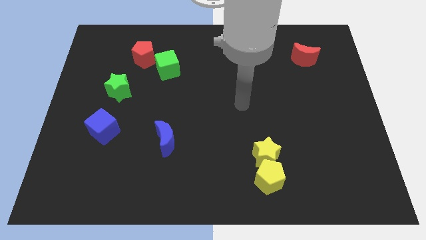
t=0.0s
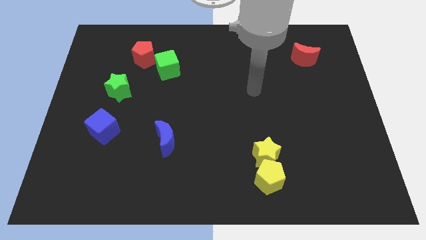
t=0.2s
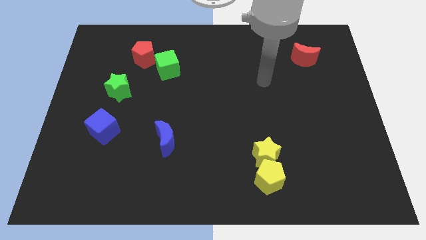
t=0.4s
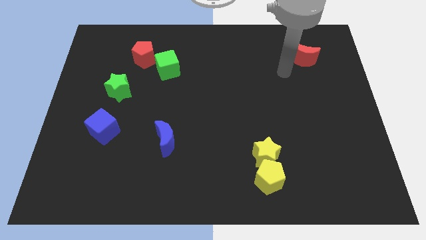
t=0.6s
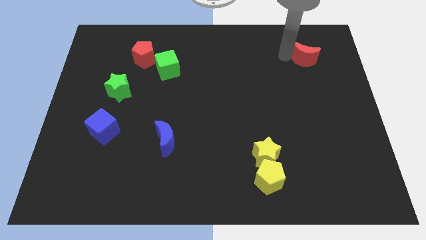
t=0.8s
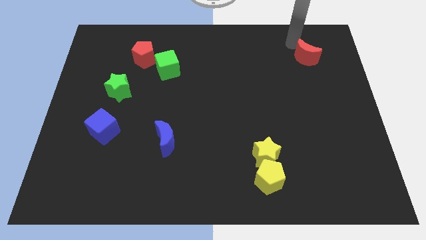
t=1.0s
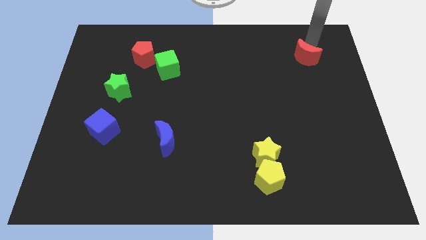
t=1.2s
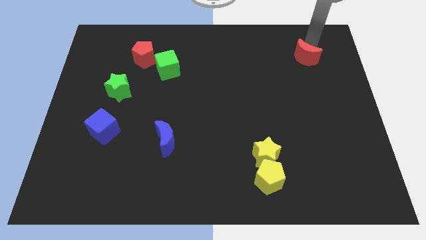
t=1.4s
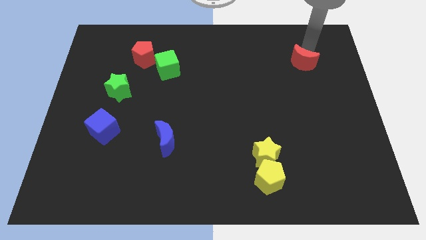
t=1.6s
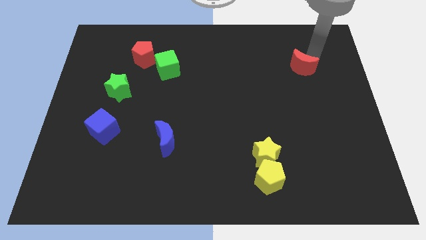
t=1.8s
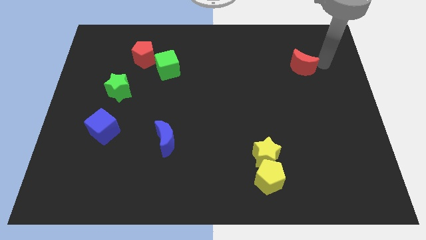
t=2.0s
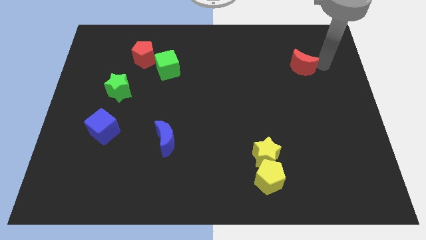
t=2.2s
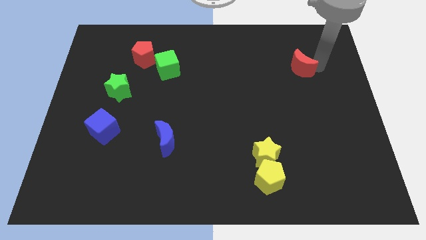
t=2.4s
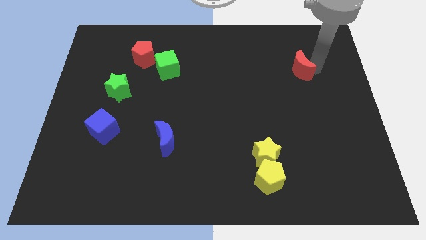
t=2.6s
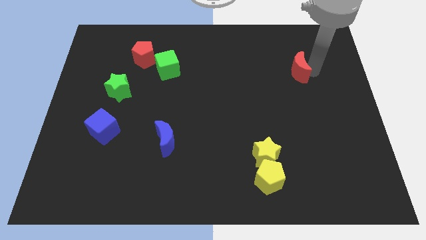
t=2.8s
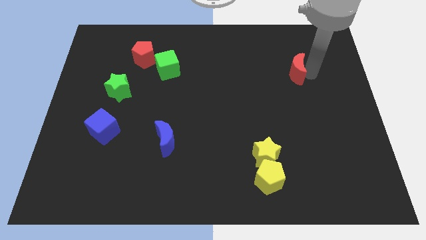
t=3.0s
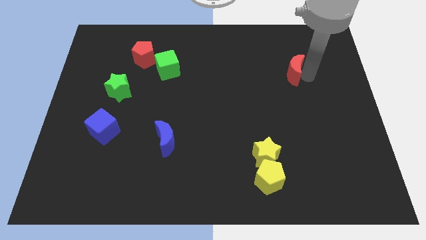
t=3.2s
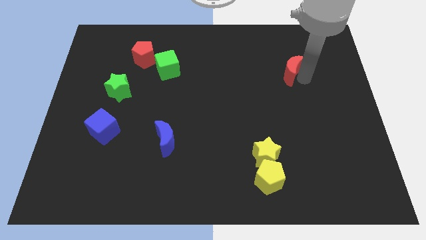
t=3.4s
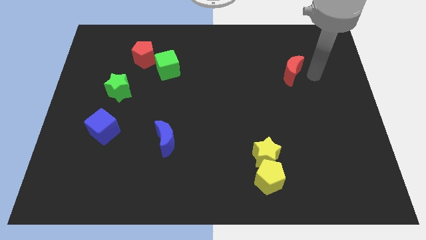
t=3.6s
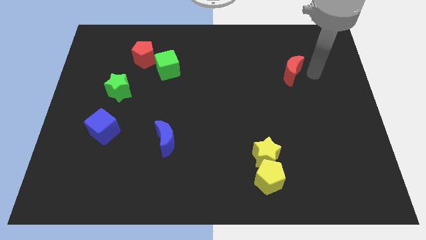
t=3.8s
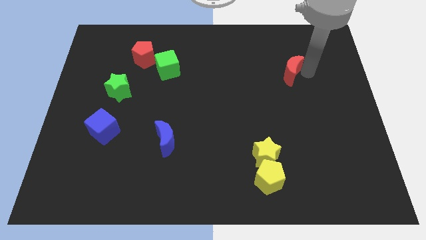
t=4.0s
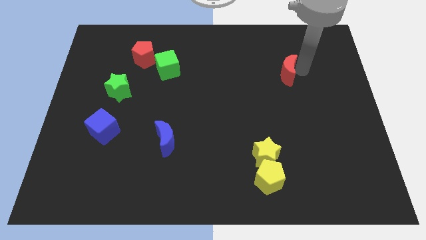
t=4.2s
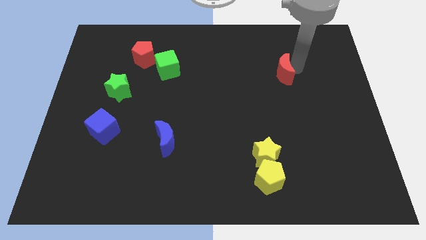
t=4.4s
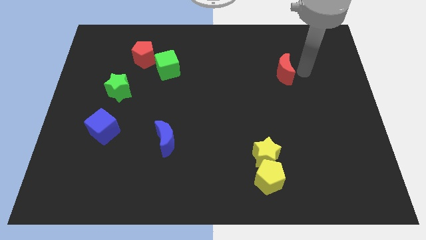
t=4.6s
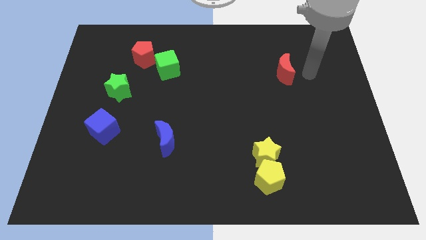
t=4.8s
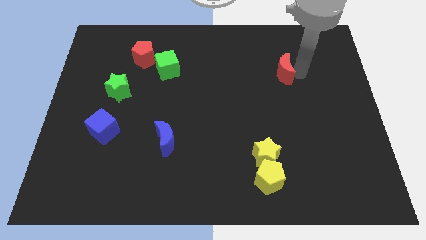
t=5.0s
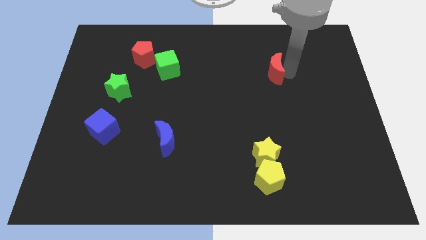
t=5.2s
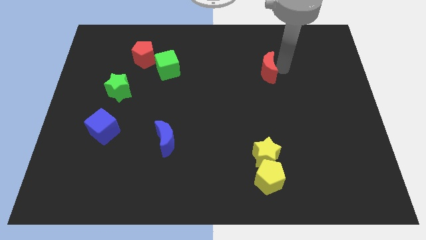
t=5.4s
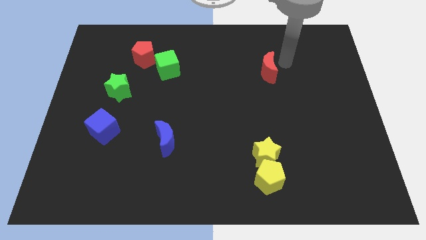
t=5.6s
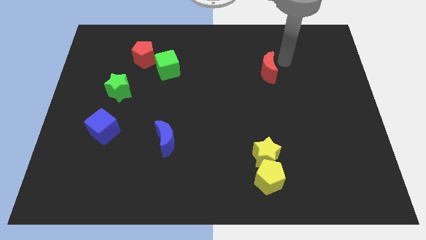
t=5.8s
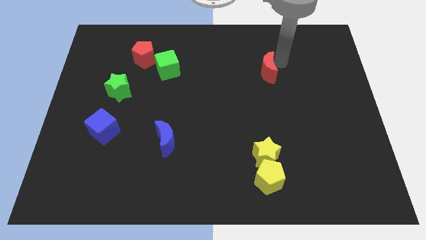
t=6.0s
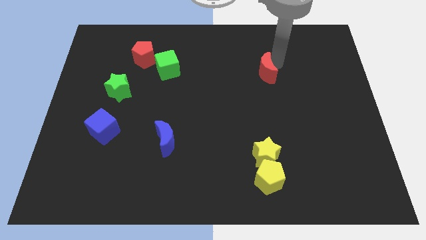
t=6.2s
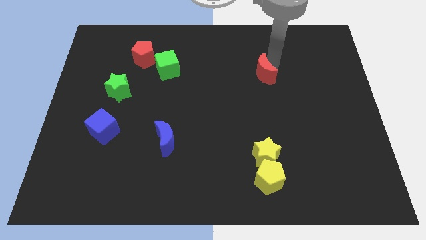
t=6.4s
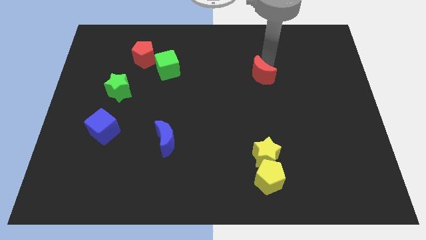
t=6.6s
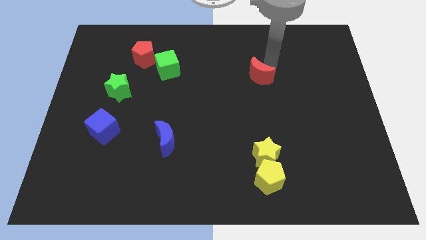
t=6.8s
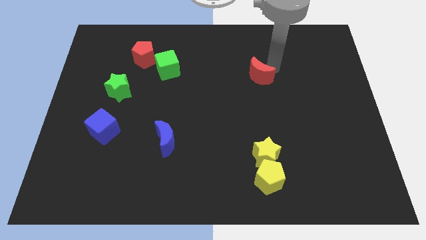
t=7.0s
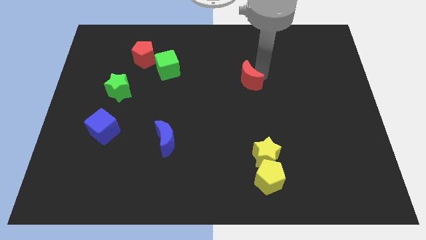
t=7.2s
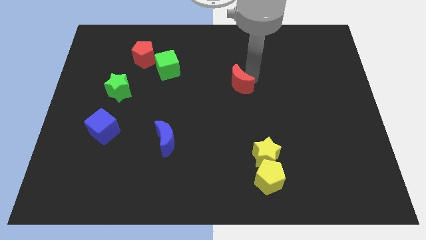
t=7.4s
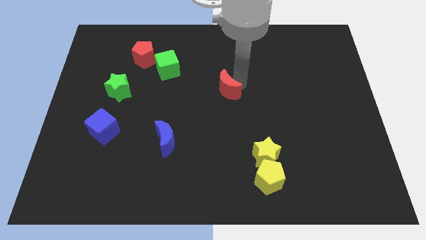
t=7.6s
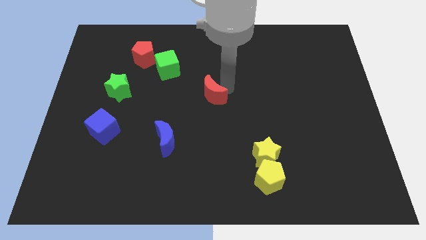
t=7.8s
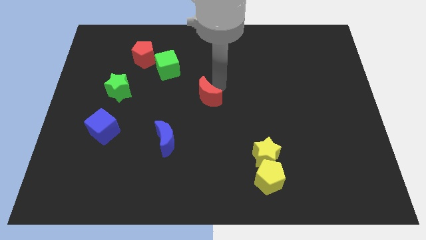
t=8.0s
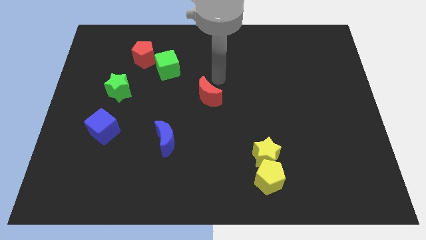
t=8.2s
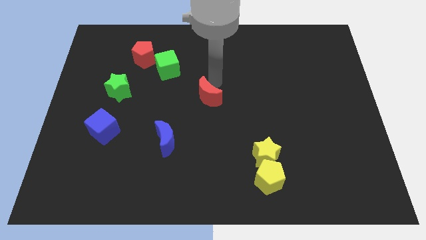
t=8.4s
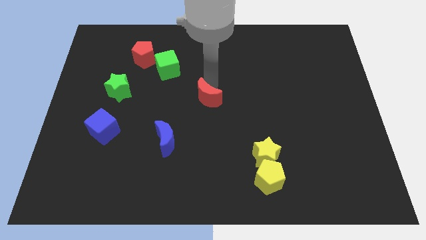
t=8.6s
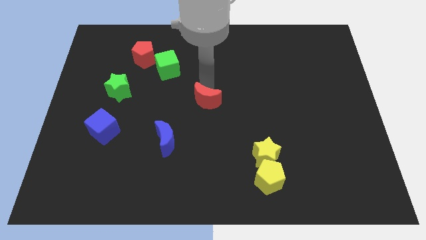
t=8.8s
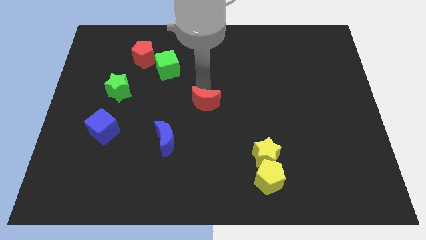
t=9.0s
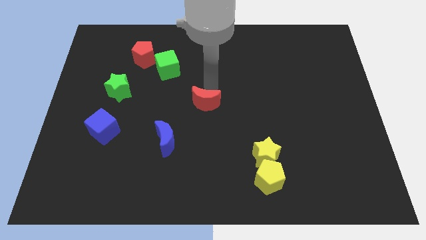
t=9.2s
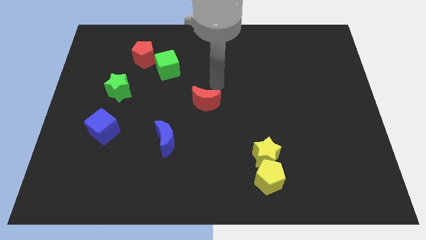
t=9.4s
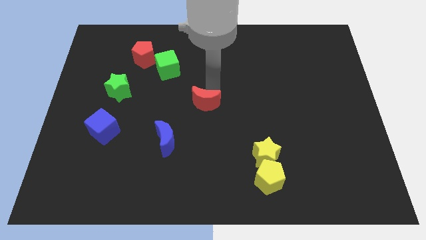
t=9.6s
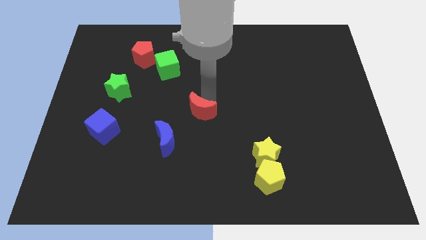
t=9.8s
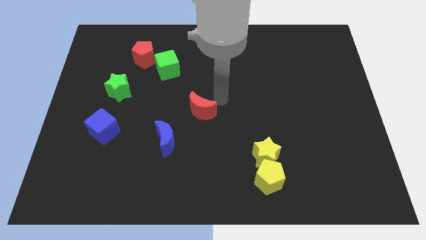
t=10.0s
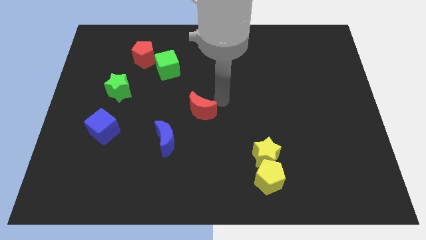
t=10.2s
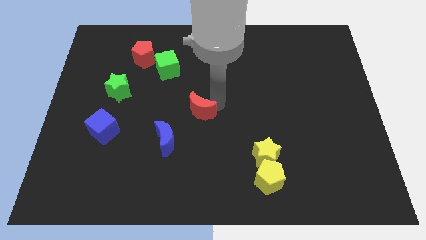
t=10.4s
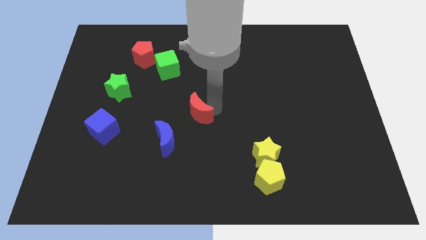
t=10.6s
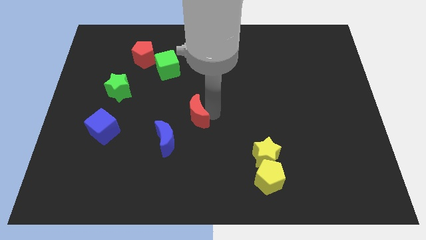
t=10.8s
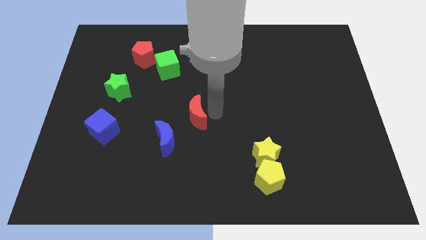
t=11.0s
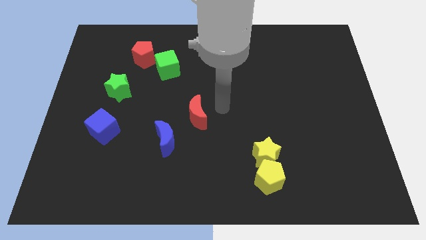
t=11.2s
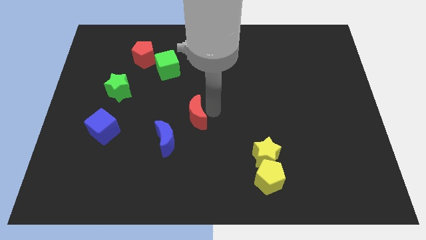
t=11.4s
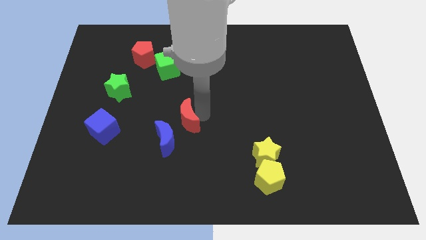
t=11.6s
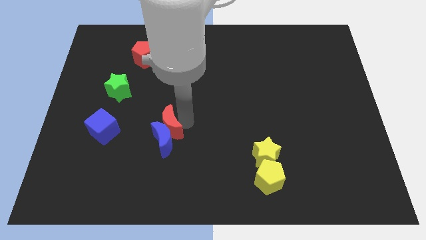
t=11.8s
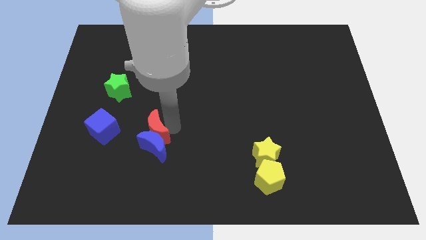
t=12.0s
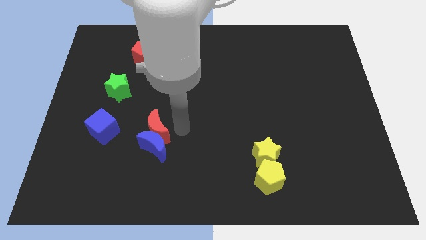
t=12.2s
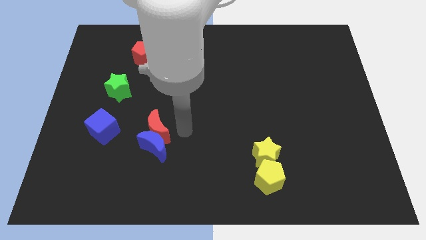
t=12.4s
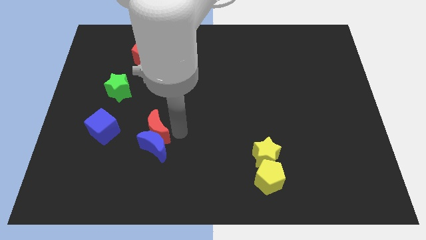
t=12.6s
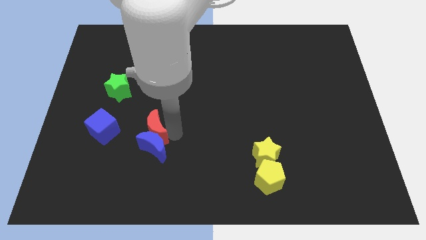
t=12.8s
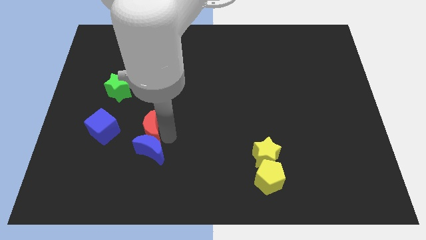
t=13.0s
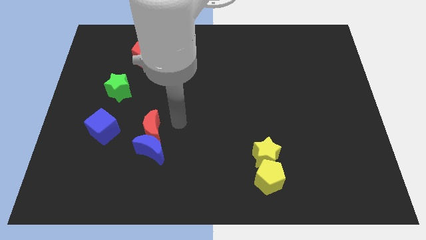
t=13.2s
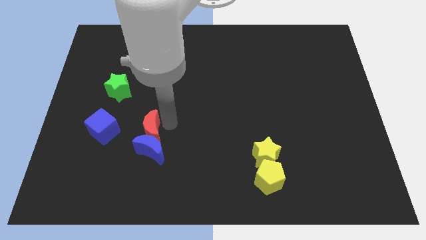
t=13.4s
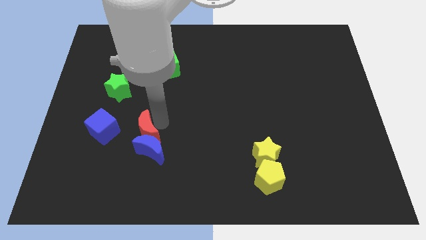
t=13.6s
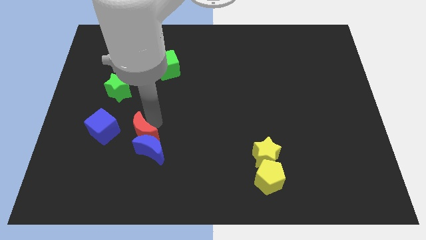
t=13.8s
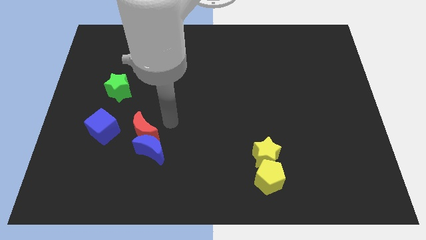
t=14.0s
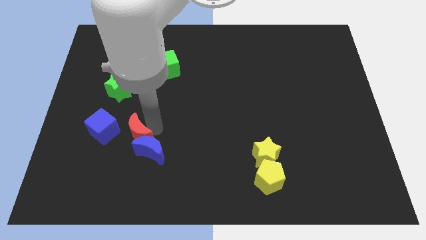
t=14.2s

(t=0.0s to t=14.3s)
push the red moon just left of the blue moon
